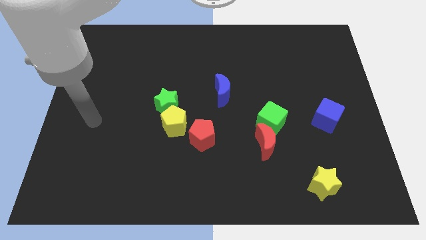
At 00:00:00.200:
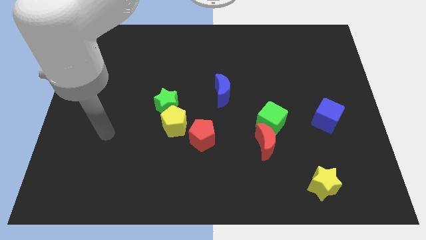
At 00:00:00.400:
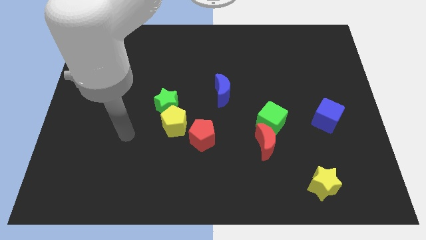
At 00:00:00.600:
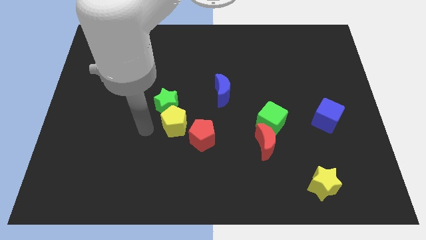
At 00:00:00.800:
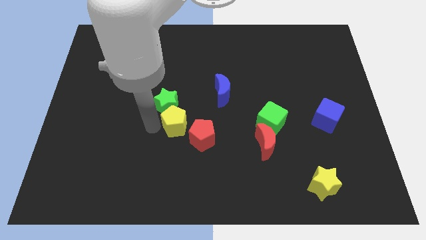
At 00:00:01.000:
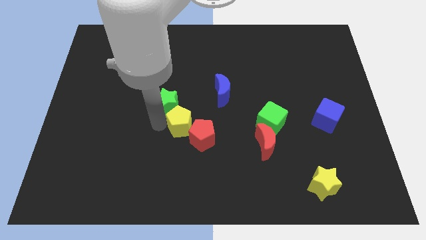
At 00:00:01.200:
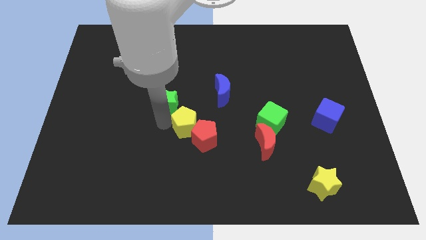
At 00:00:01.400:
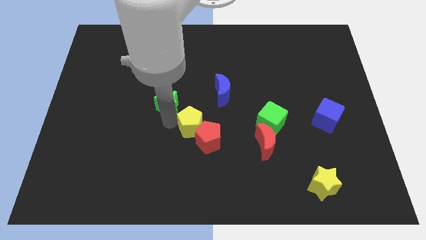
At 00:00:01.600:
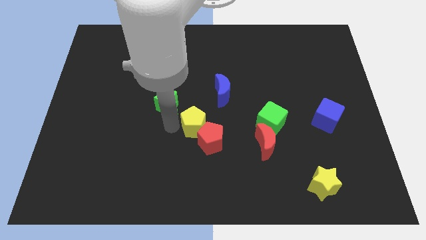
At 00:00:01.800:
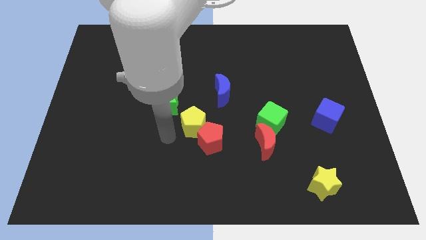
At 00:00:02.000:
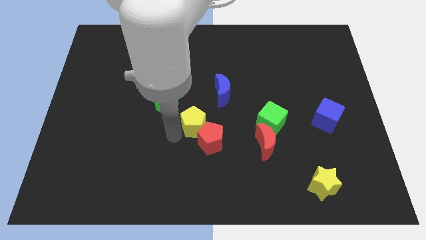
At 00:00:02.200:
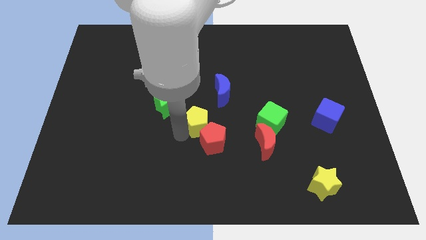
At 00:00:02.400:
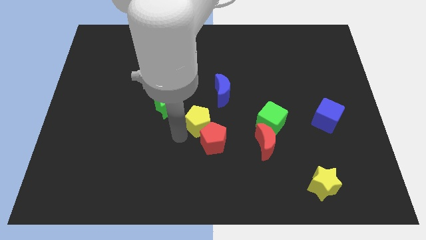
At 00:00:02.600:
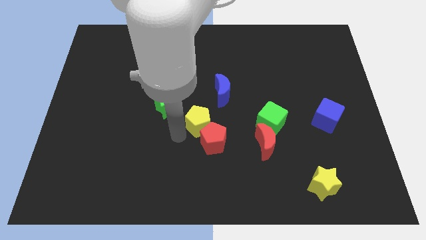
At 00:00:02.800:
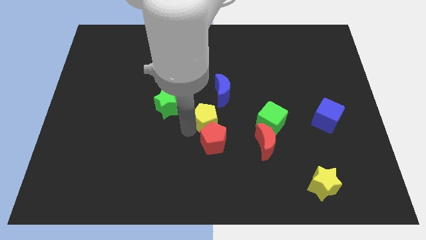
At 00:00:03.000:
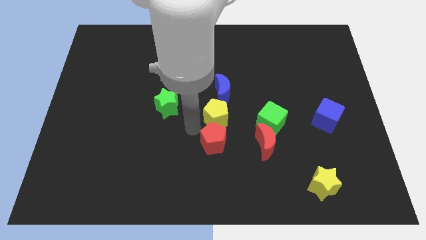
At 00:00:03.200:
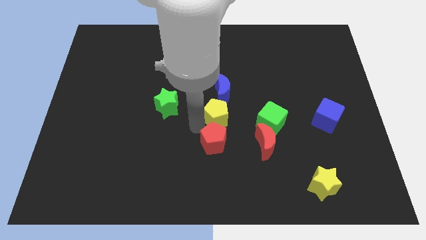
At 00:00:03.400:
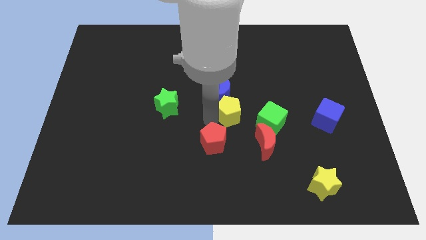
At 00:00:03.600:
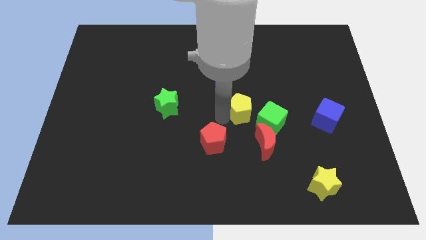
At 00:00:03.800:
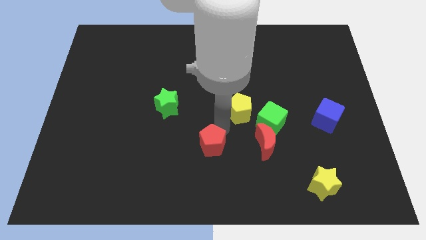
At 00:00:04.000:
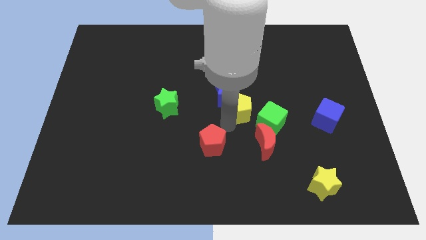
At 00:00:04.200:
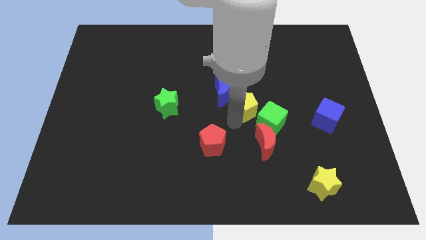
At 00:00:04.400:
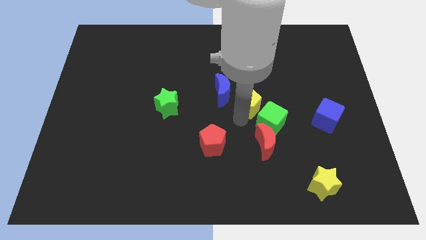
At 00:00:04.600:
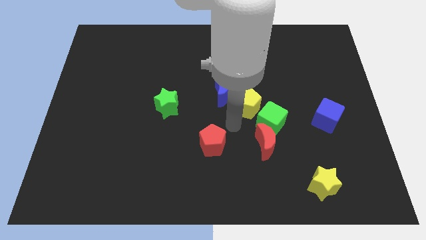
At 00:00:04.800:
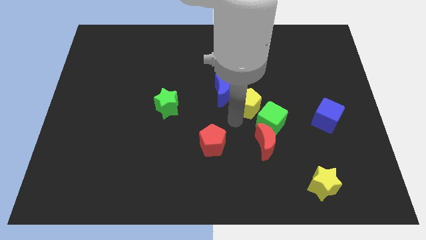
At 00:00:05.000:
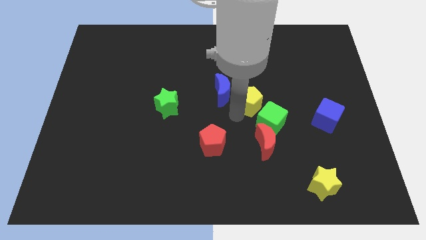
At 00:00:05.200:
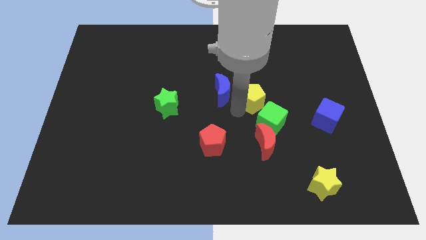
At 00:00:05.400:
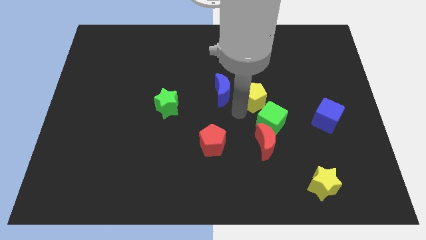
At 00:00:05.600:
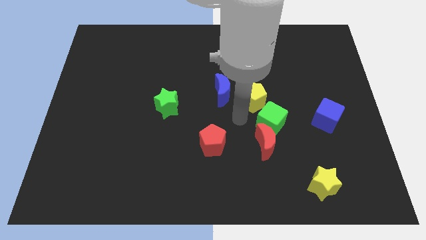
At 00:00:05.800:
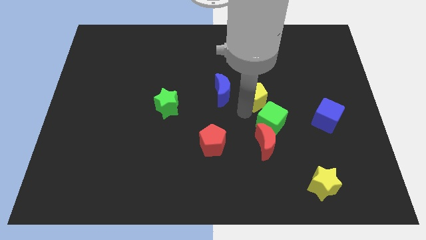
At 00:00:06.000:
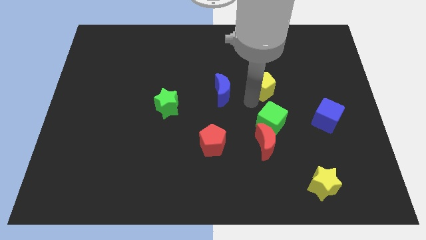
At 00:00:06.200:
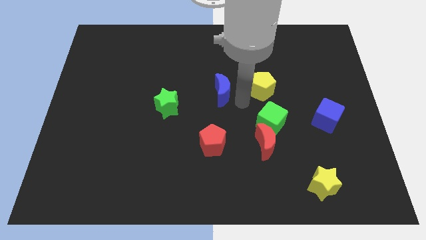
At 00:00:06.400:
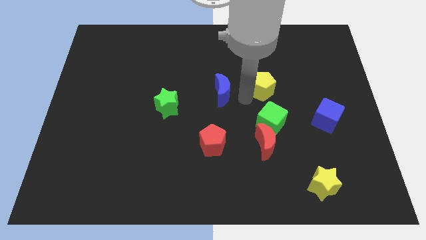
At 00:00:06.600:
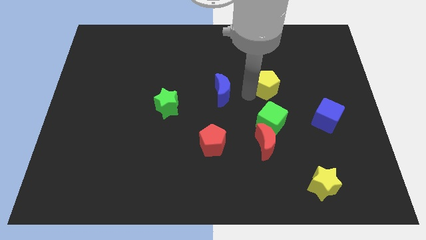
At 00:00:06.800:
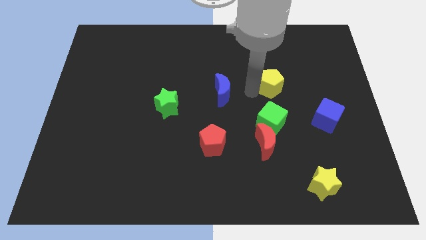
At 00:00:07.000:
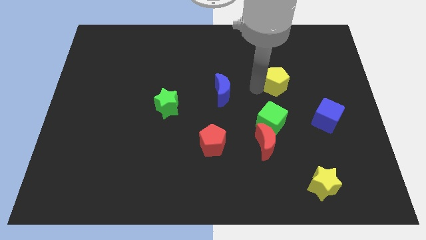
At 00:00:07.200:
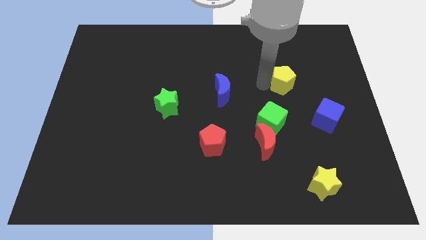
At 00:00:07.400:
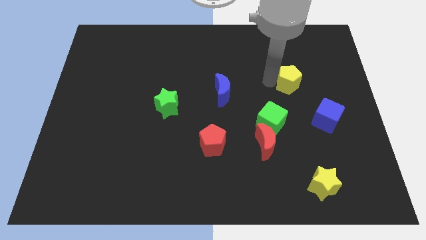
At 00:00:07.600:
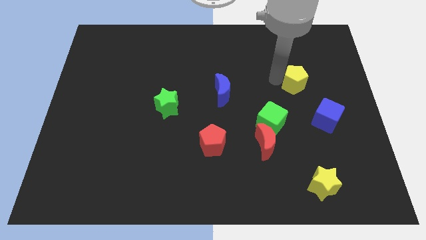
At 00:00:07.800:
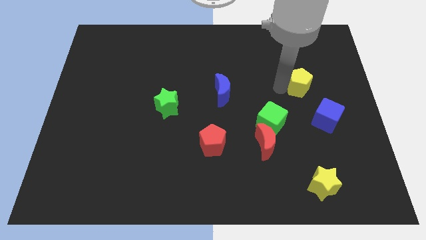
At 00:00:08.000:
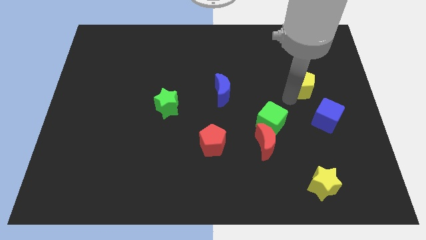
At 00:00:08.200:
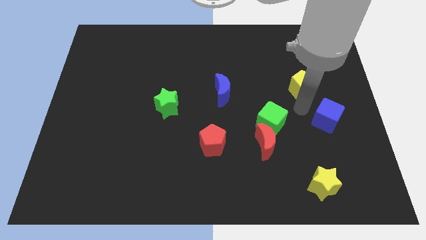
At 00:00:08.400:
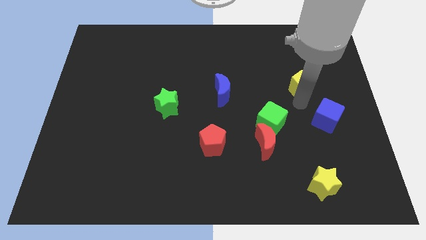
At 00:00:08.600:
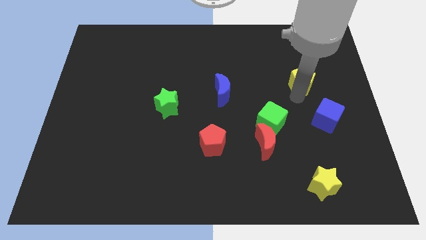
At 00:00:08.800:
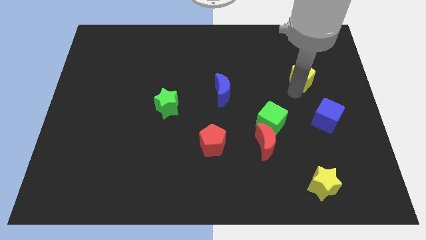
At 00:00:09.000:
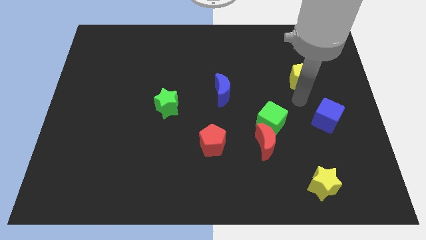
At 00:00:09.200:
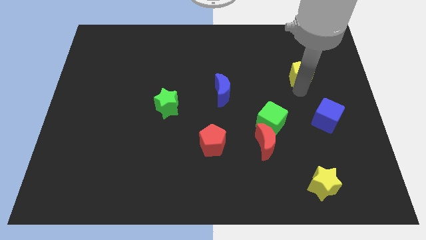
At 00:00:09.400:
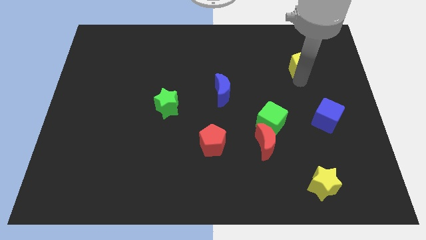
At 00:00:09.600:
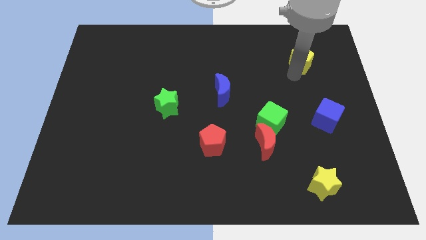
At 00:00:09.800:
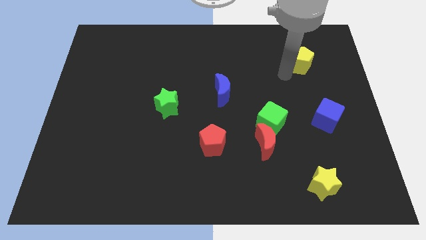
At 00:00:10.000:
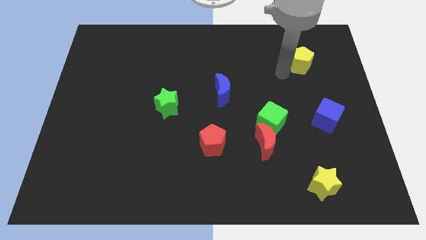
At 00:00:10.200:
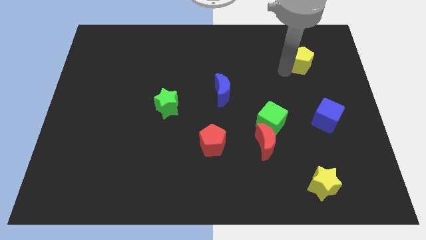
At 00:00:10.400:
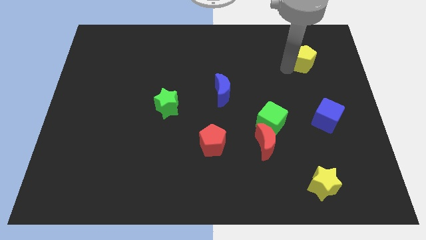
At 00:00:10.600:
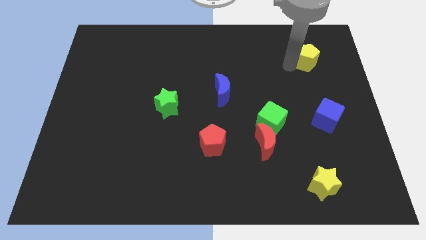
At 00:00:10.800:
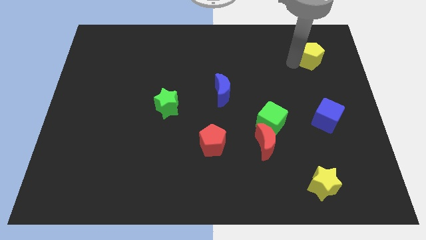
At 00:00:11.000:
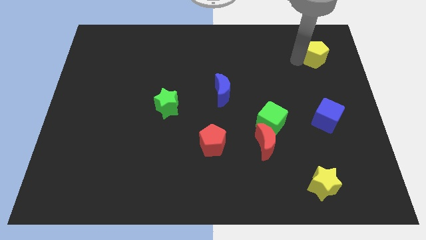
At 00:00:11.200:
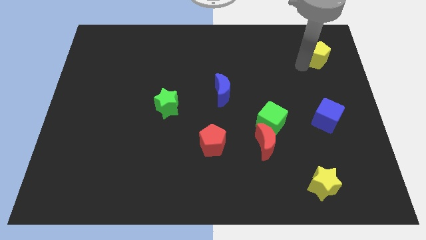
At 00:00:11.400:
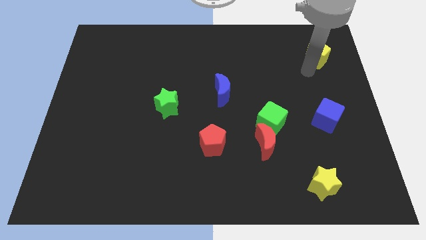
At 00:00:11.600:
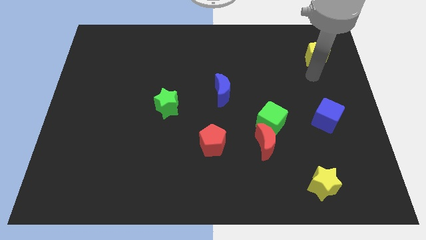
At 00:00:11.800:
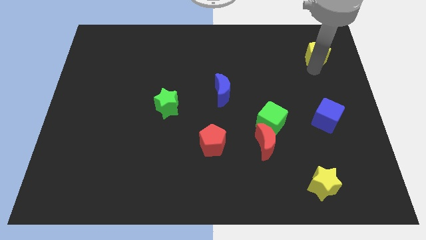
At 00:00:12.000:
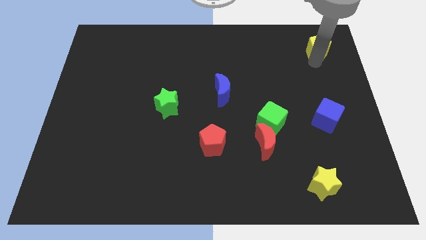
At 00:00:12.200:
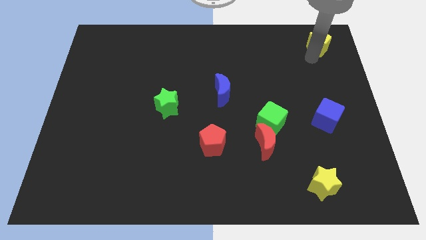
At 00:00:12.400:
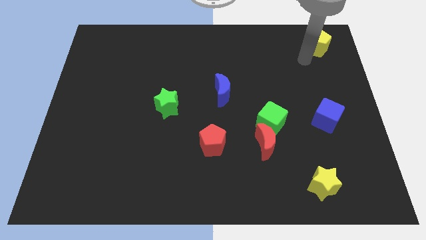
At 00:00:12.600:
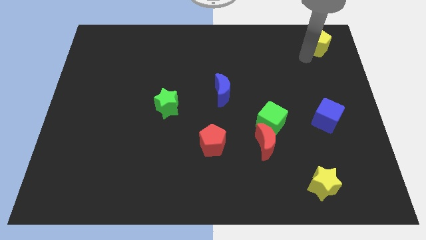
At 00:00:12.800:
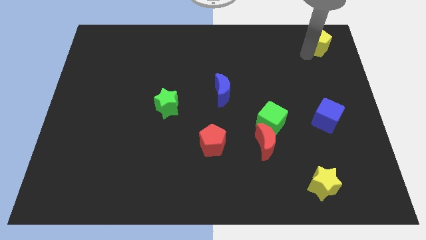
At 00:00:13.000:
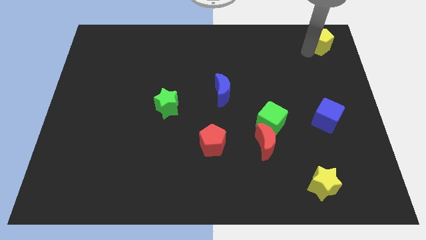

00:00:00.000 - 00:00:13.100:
move the yellow pentagon to the top right corner
